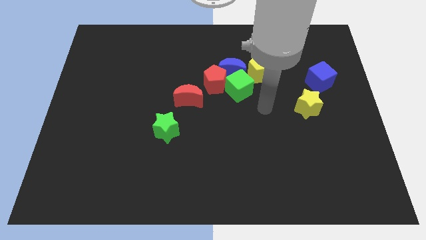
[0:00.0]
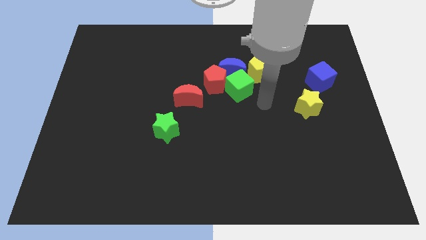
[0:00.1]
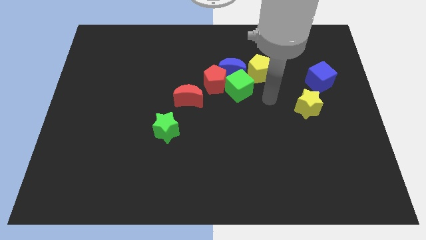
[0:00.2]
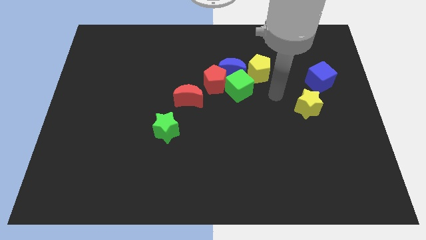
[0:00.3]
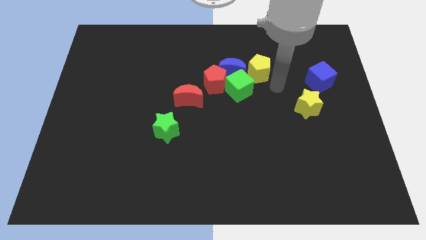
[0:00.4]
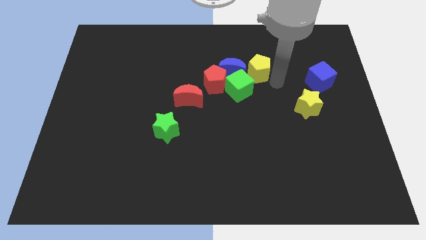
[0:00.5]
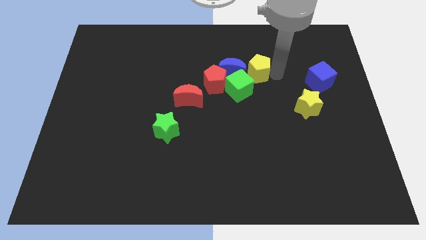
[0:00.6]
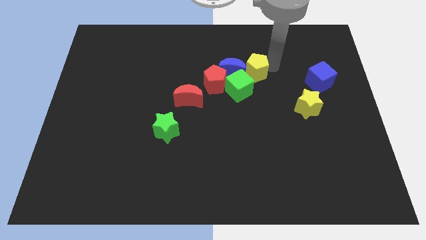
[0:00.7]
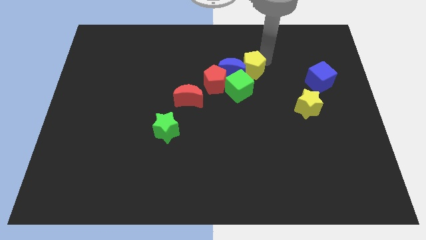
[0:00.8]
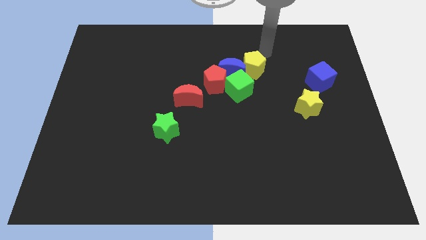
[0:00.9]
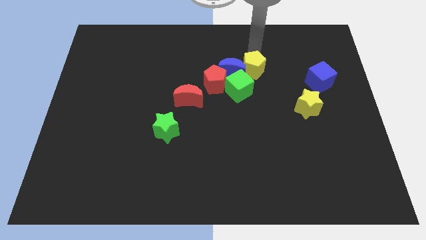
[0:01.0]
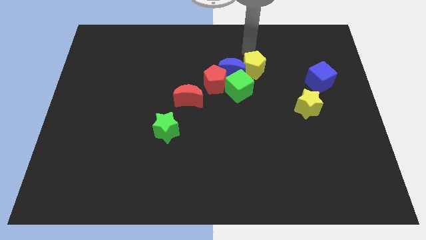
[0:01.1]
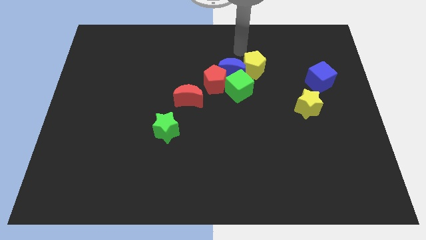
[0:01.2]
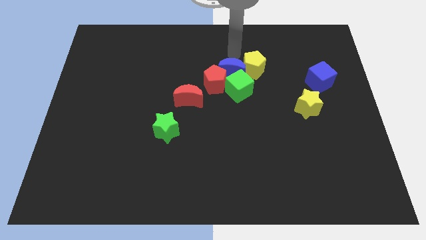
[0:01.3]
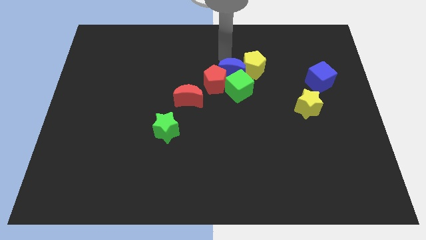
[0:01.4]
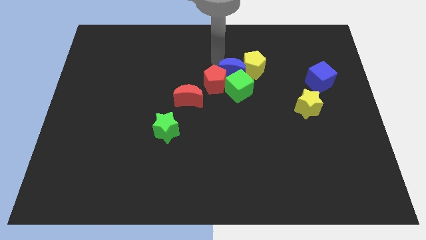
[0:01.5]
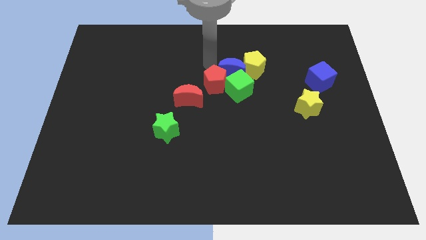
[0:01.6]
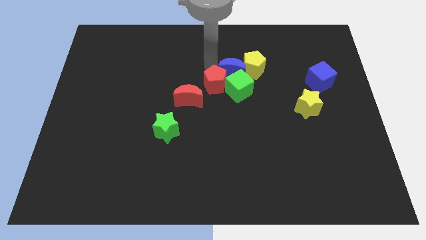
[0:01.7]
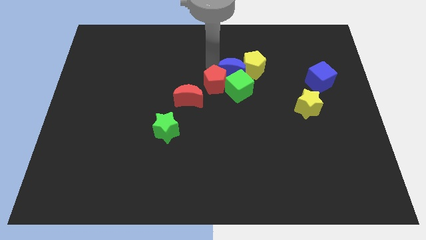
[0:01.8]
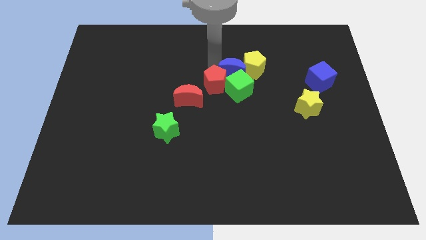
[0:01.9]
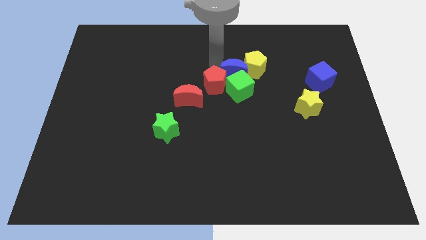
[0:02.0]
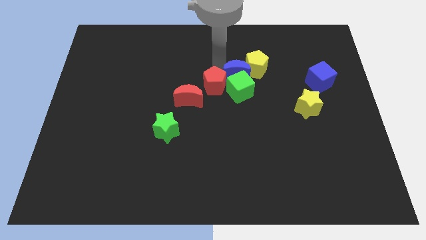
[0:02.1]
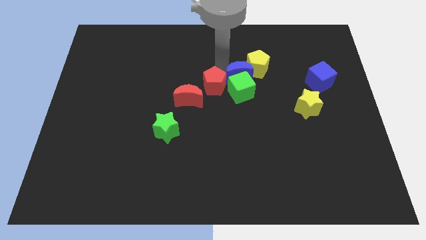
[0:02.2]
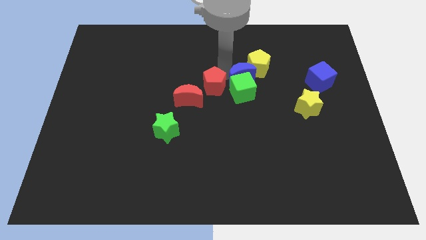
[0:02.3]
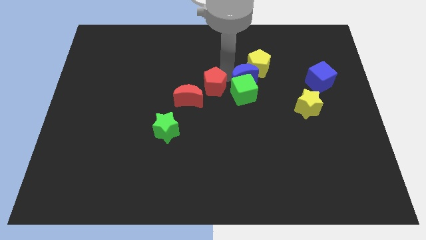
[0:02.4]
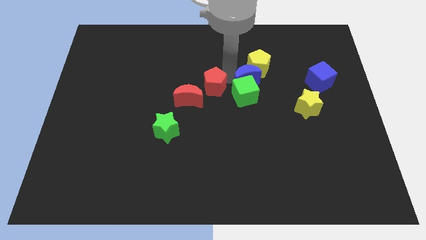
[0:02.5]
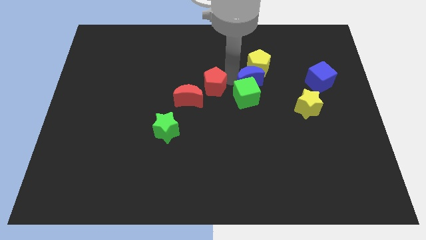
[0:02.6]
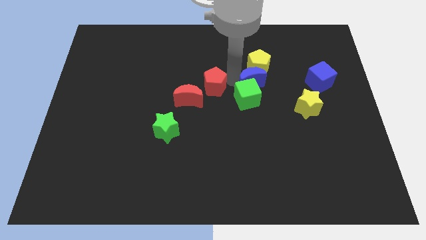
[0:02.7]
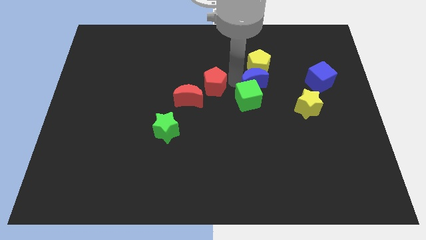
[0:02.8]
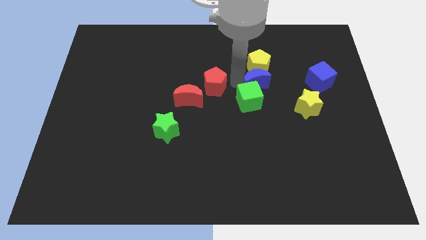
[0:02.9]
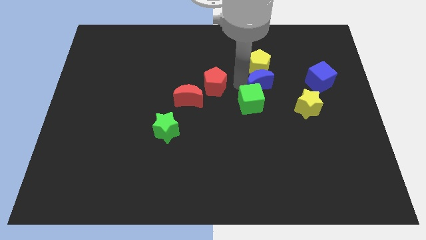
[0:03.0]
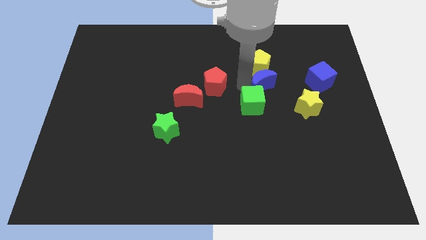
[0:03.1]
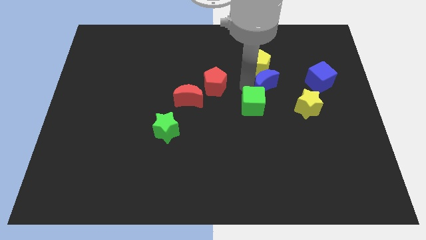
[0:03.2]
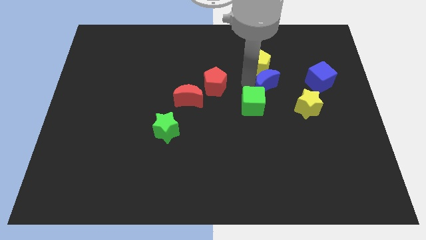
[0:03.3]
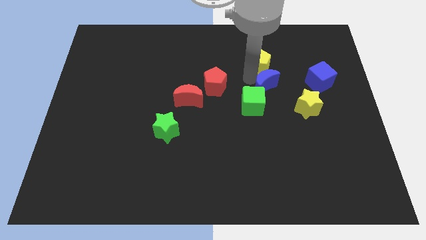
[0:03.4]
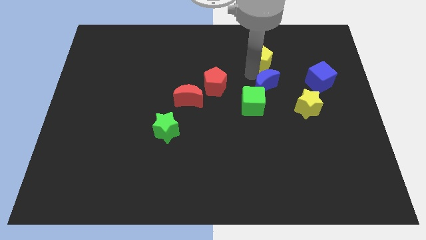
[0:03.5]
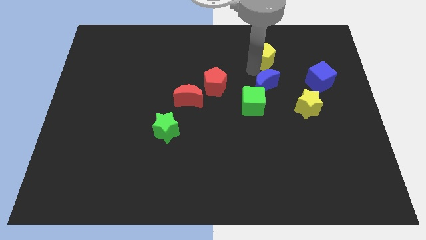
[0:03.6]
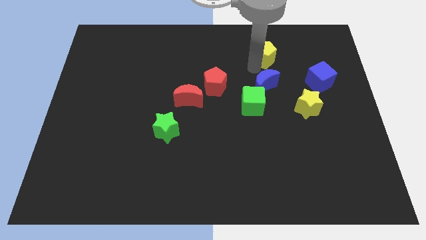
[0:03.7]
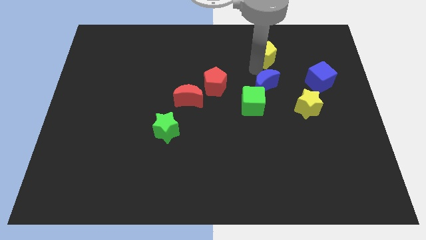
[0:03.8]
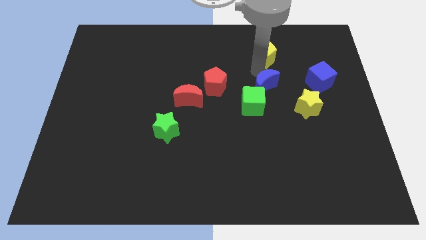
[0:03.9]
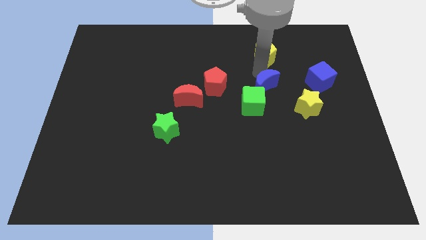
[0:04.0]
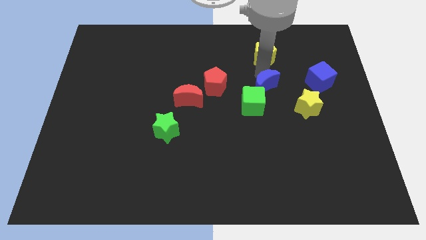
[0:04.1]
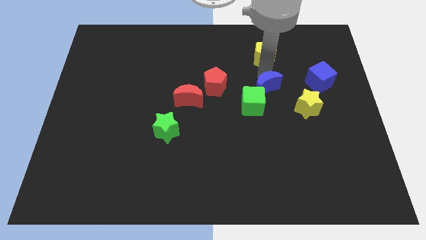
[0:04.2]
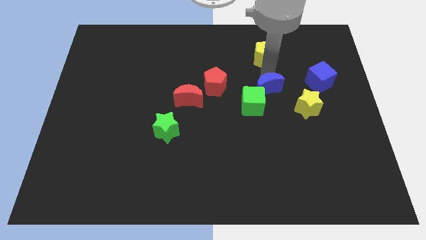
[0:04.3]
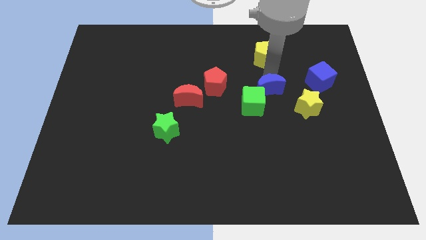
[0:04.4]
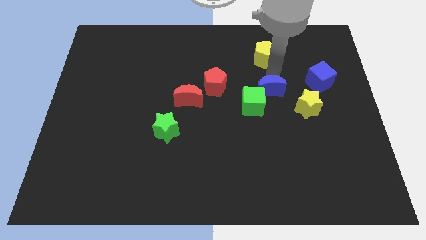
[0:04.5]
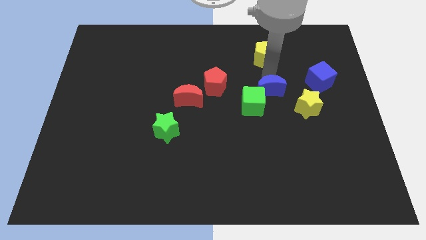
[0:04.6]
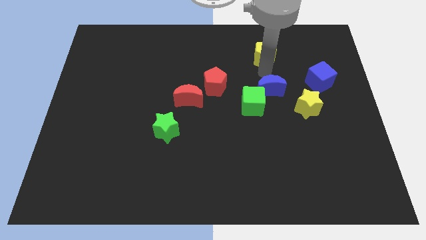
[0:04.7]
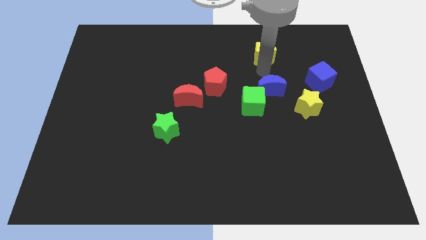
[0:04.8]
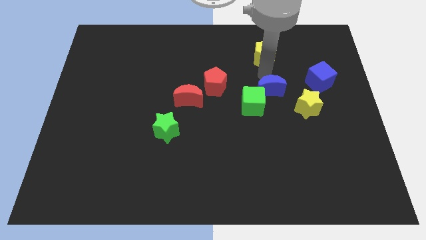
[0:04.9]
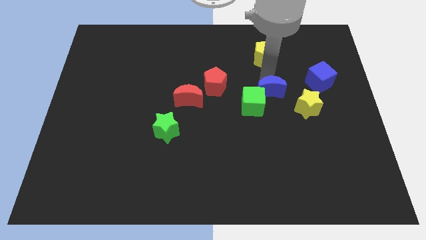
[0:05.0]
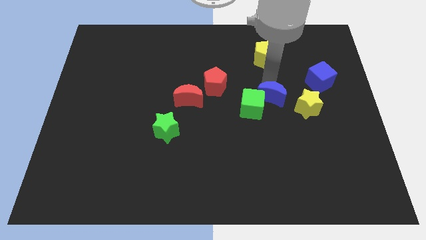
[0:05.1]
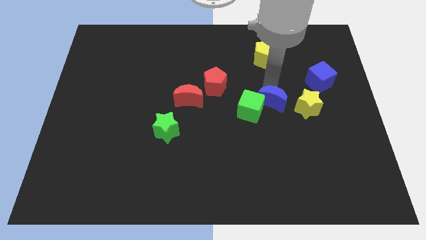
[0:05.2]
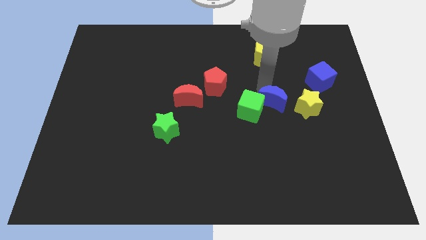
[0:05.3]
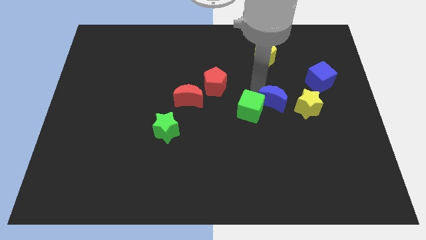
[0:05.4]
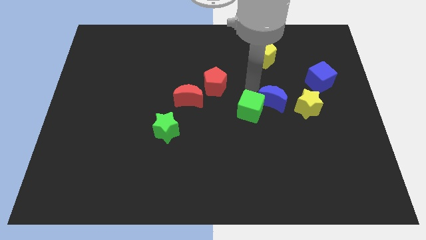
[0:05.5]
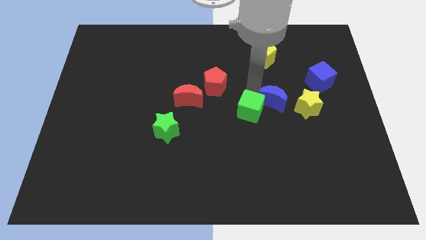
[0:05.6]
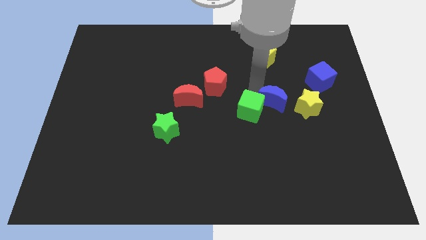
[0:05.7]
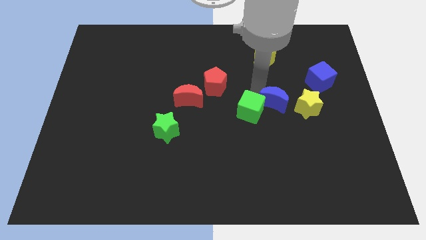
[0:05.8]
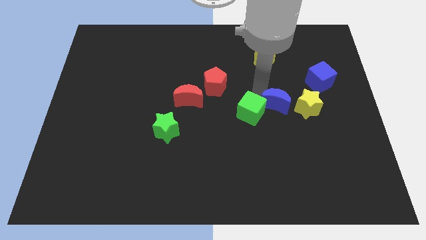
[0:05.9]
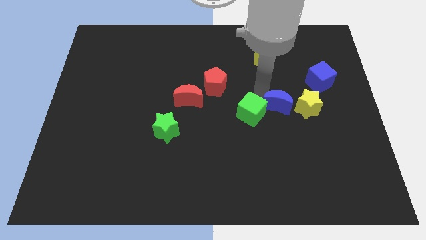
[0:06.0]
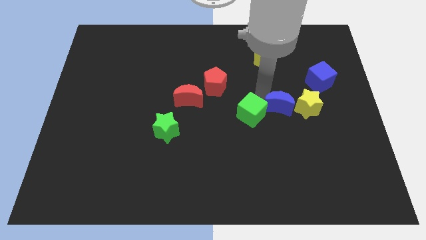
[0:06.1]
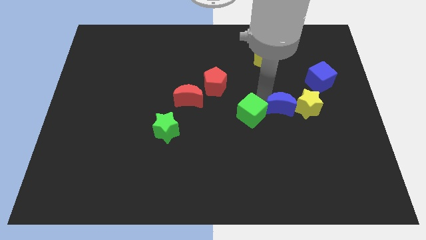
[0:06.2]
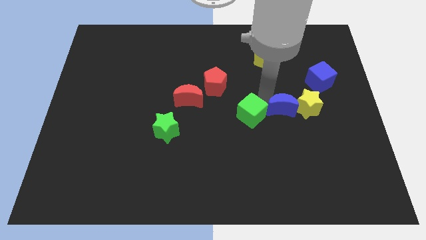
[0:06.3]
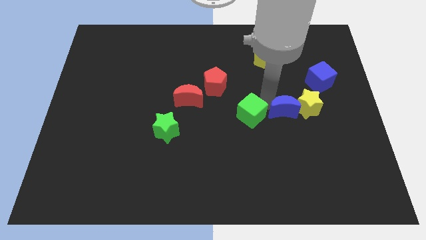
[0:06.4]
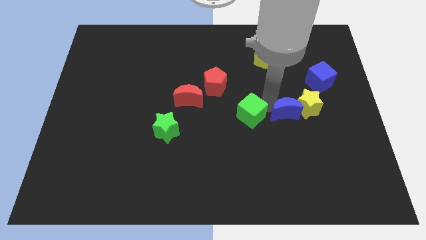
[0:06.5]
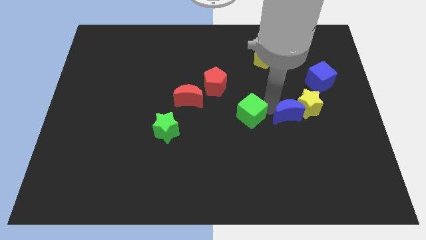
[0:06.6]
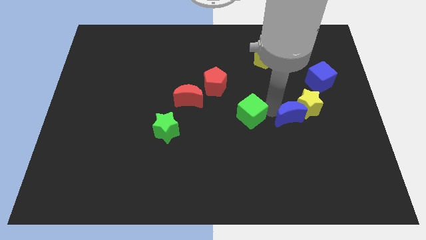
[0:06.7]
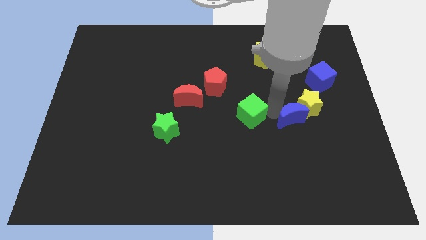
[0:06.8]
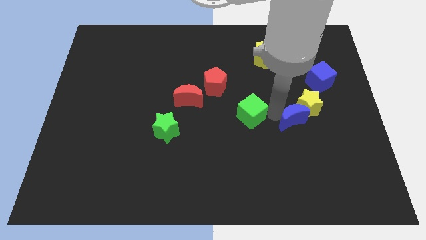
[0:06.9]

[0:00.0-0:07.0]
push the blue moon downwards and then right

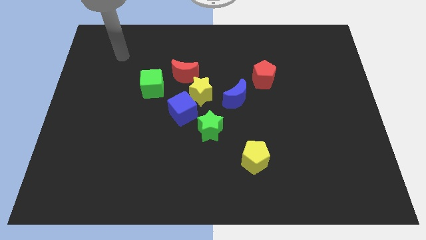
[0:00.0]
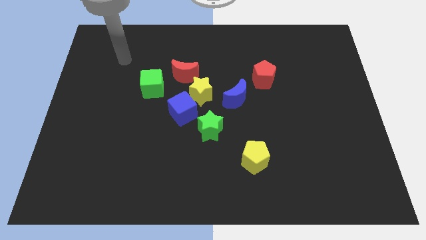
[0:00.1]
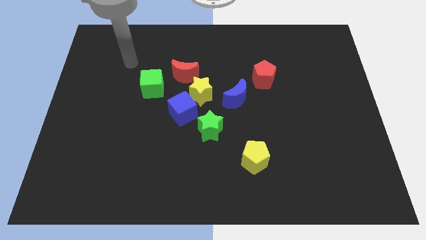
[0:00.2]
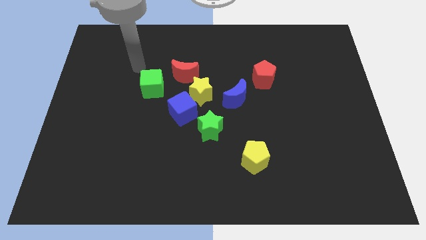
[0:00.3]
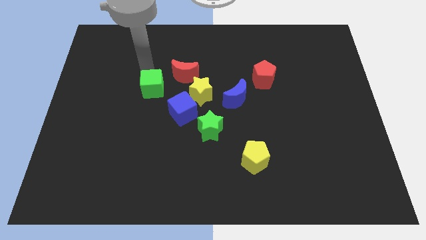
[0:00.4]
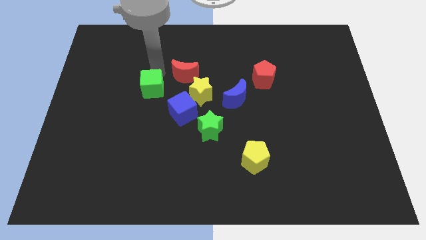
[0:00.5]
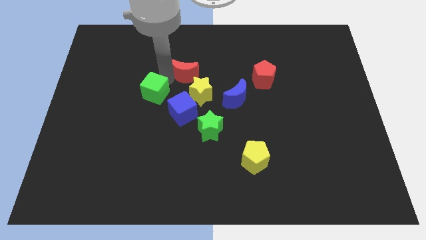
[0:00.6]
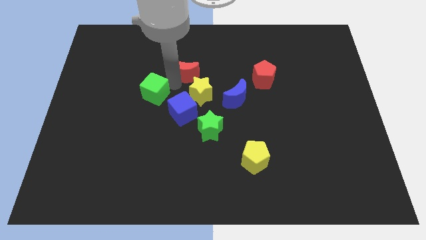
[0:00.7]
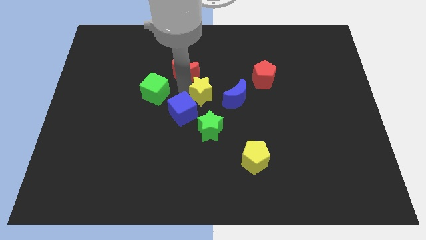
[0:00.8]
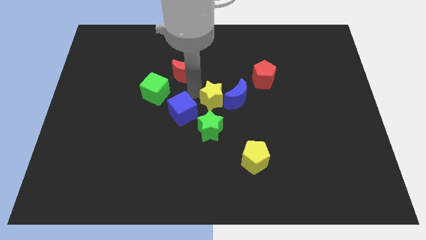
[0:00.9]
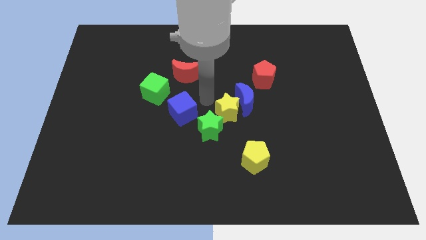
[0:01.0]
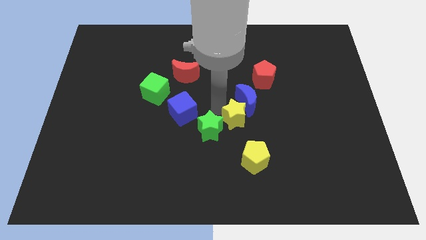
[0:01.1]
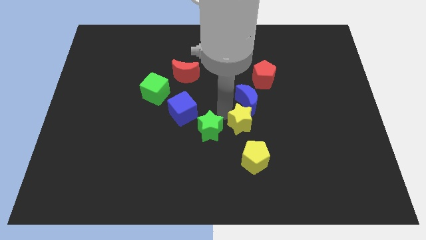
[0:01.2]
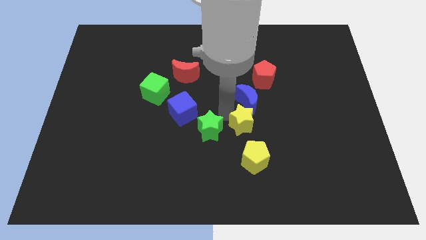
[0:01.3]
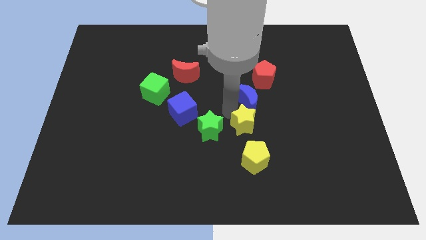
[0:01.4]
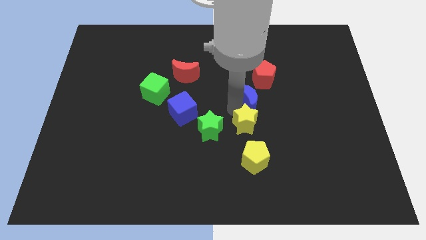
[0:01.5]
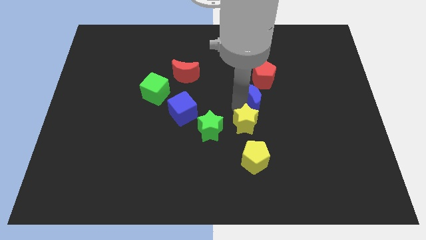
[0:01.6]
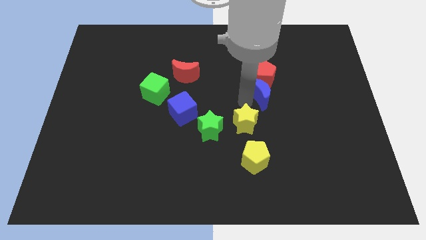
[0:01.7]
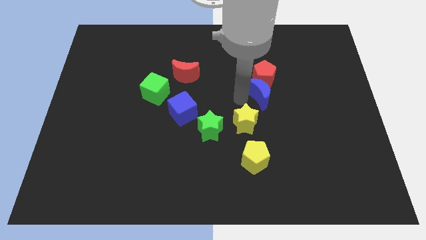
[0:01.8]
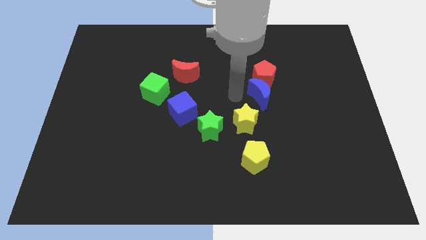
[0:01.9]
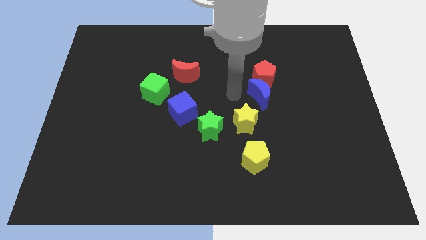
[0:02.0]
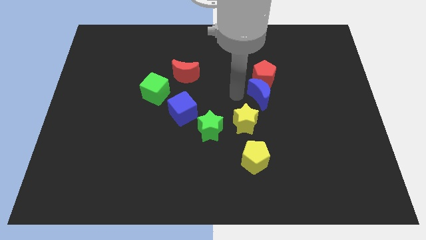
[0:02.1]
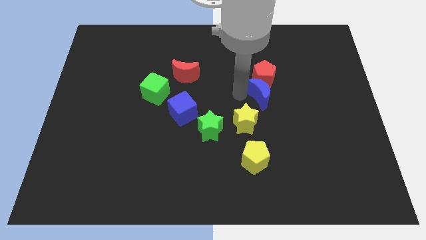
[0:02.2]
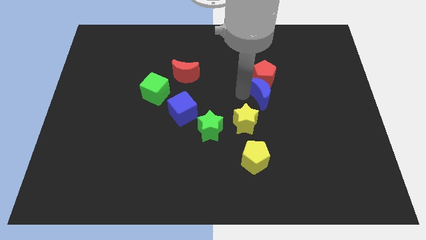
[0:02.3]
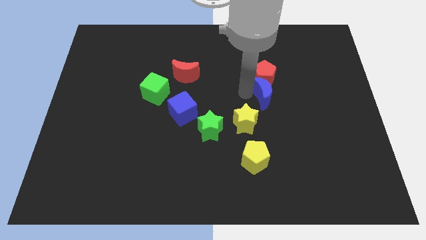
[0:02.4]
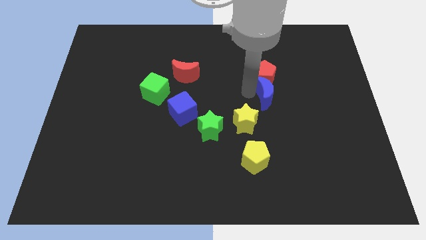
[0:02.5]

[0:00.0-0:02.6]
push the blue moon a bit to the right
